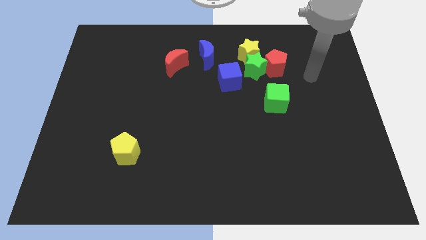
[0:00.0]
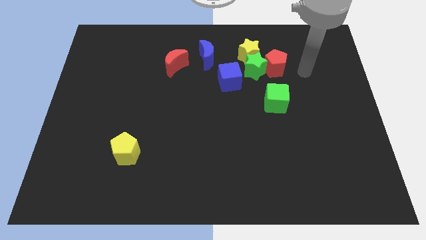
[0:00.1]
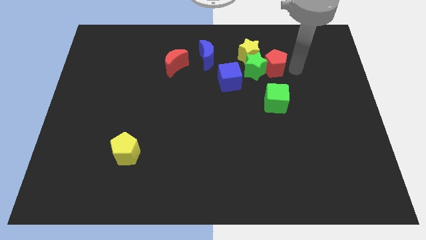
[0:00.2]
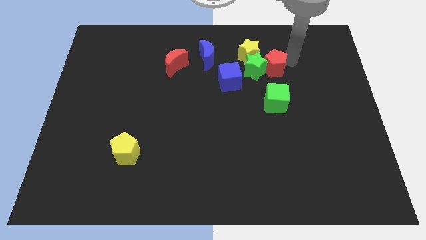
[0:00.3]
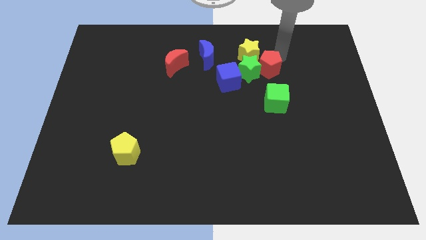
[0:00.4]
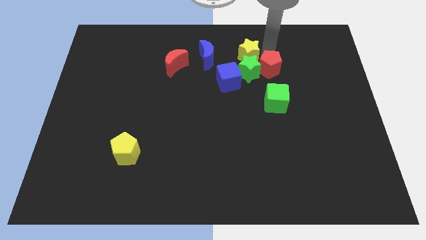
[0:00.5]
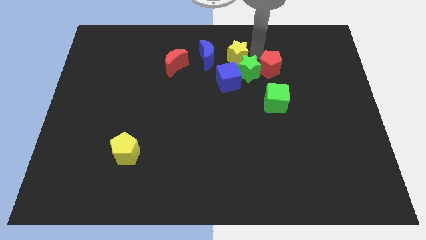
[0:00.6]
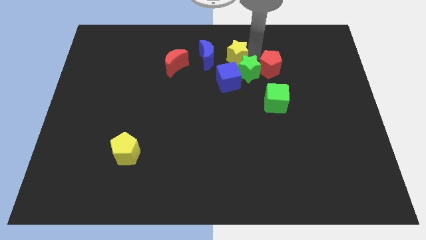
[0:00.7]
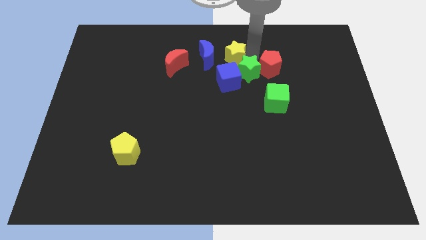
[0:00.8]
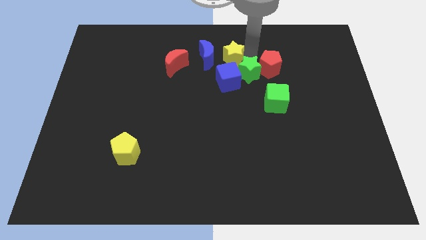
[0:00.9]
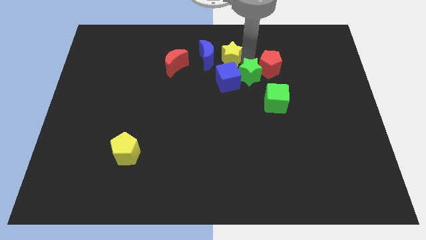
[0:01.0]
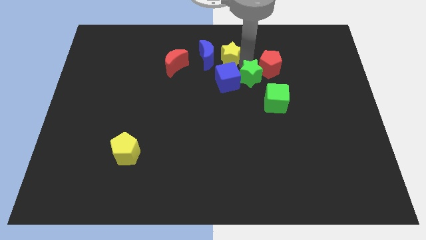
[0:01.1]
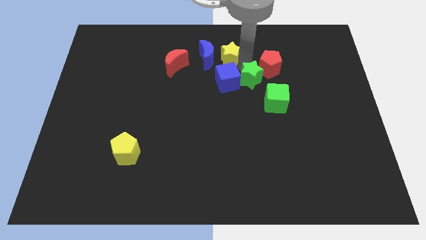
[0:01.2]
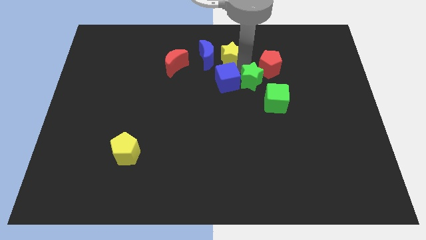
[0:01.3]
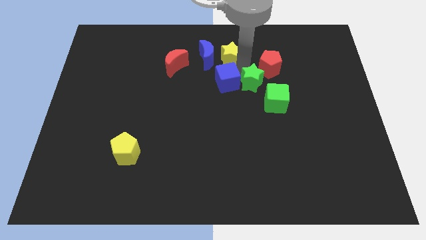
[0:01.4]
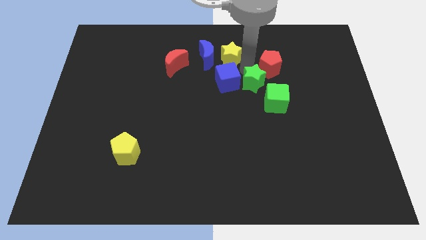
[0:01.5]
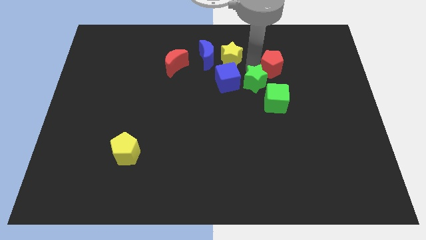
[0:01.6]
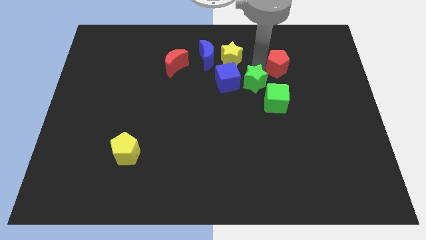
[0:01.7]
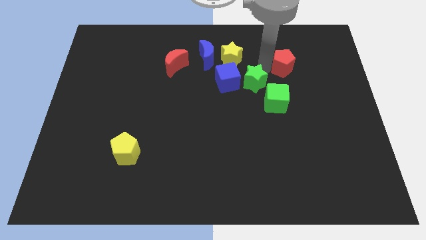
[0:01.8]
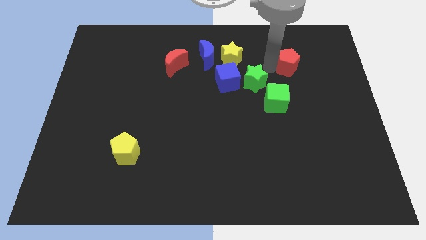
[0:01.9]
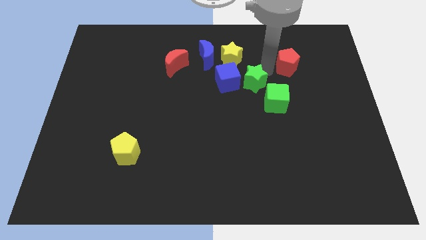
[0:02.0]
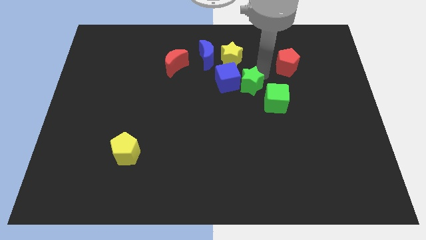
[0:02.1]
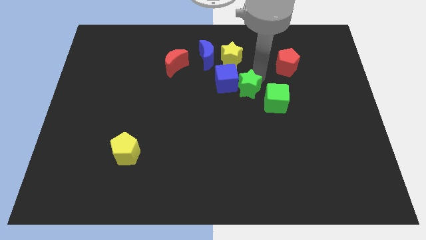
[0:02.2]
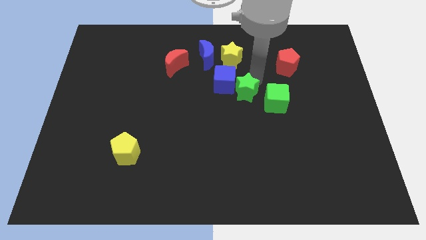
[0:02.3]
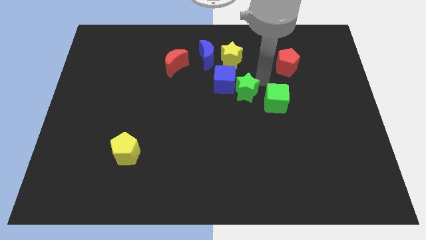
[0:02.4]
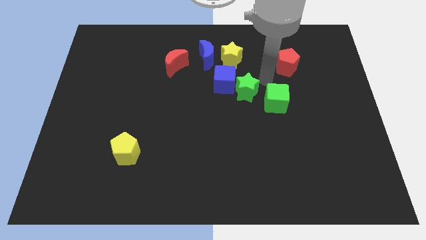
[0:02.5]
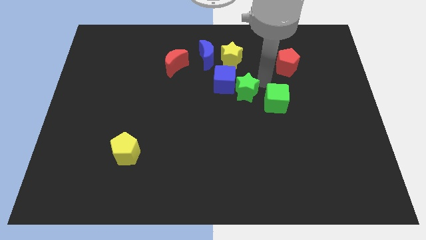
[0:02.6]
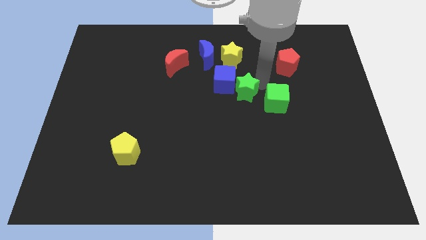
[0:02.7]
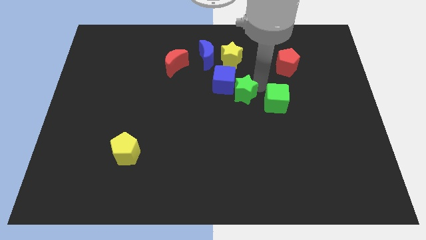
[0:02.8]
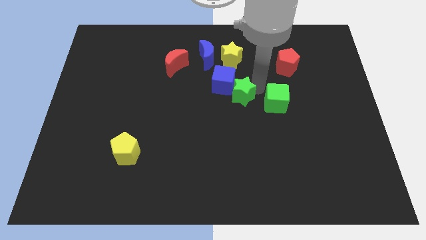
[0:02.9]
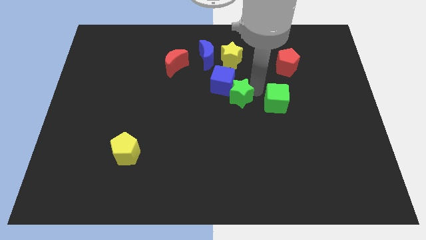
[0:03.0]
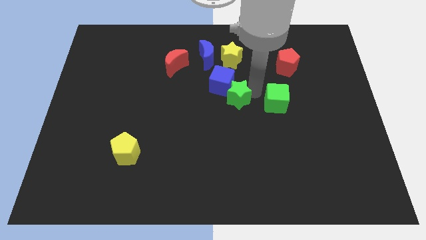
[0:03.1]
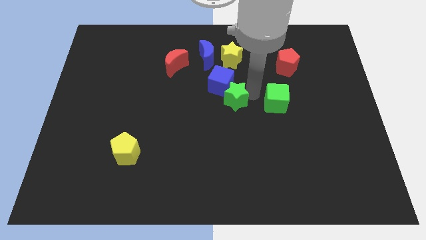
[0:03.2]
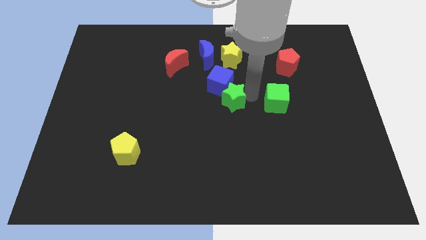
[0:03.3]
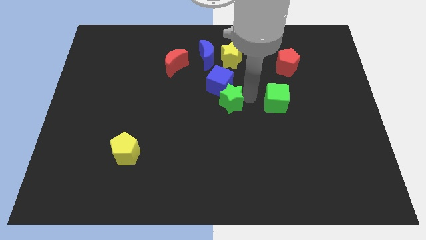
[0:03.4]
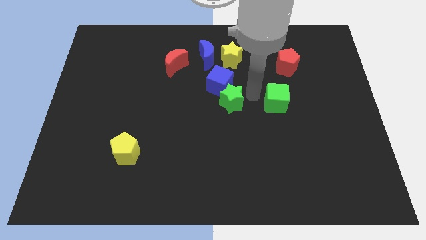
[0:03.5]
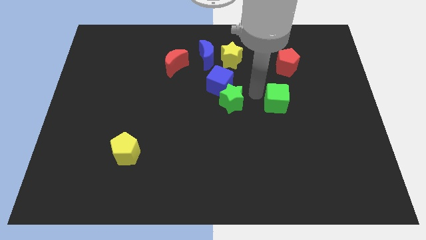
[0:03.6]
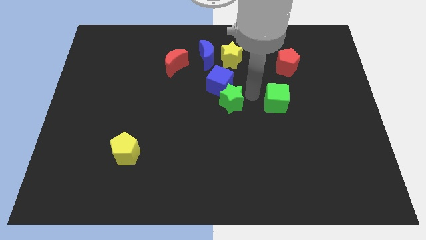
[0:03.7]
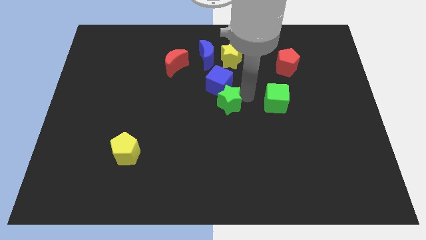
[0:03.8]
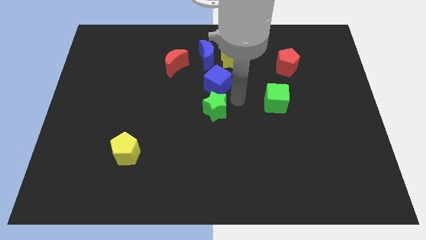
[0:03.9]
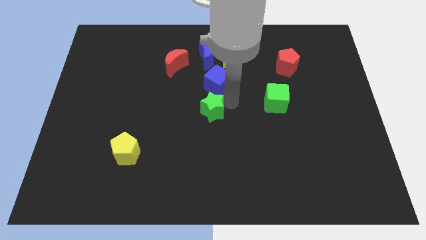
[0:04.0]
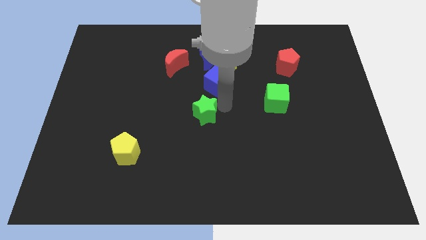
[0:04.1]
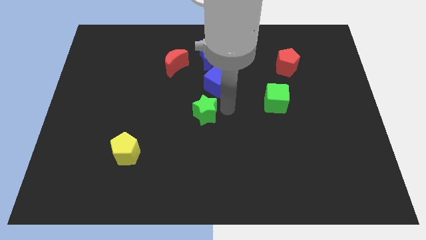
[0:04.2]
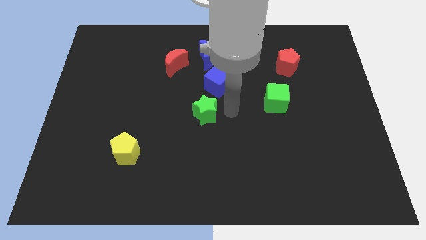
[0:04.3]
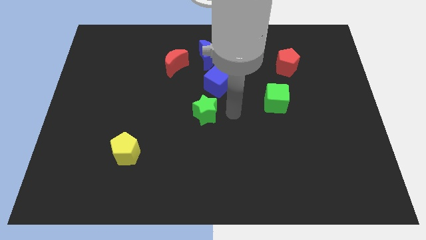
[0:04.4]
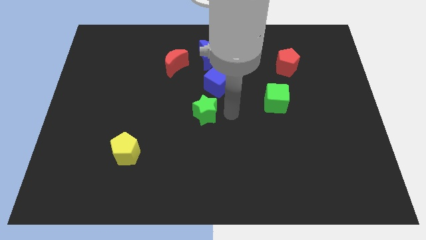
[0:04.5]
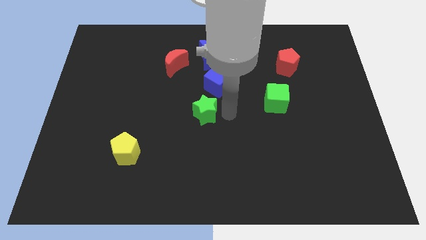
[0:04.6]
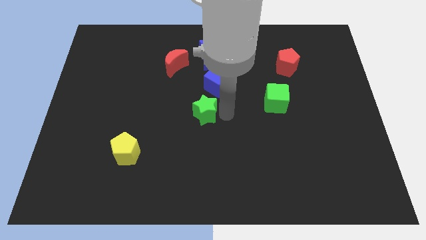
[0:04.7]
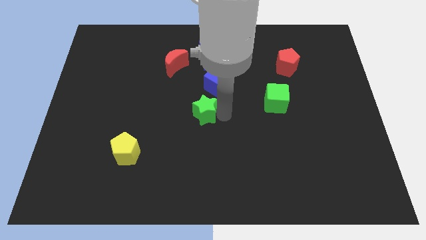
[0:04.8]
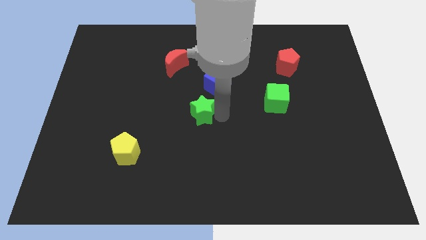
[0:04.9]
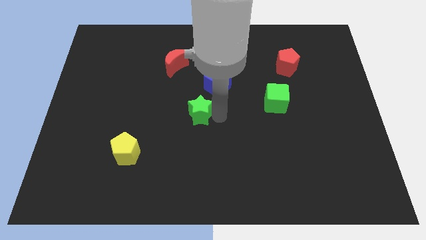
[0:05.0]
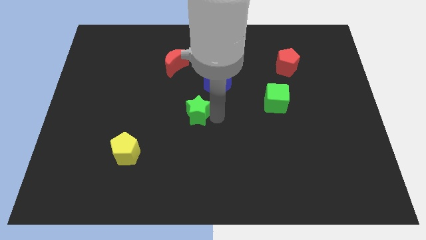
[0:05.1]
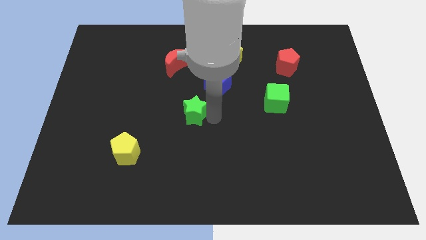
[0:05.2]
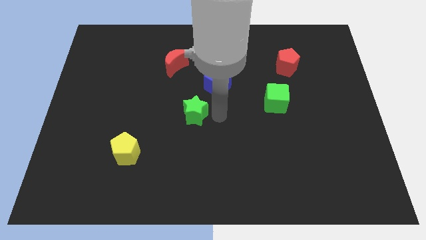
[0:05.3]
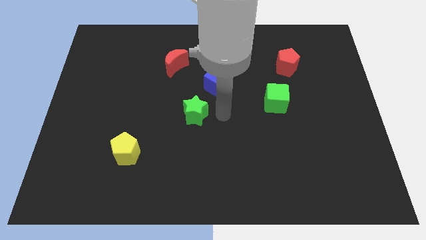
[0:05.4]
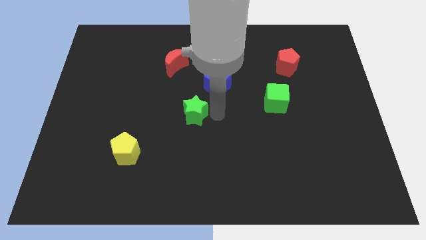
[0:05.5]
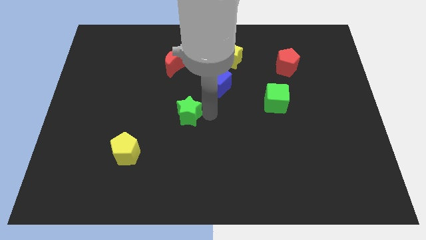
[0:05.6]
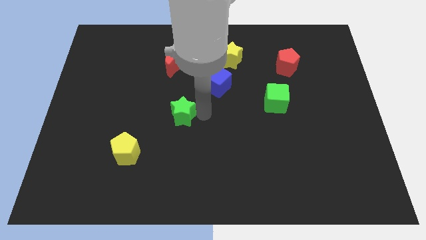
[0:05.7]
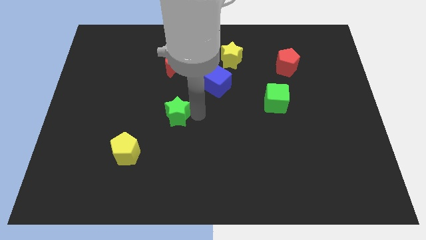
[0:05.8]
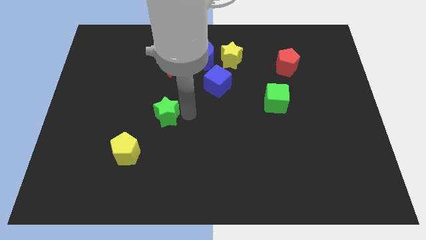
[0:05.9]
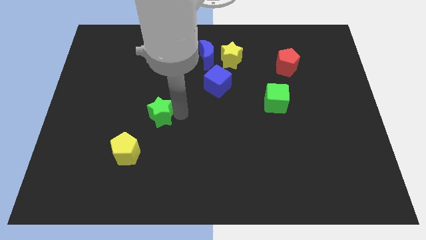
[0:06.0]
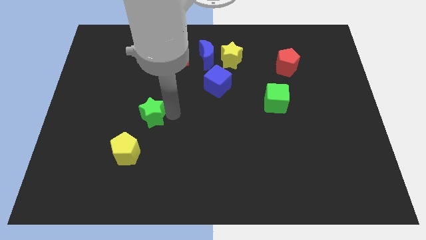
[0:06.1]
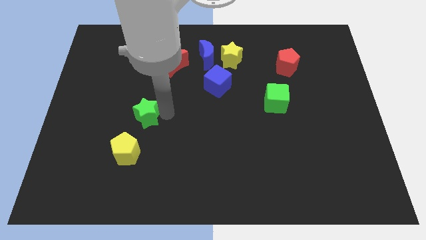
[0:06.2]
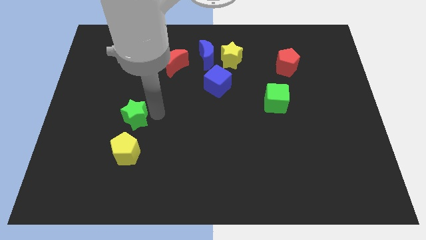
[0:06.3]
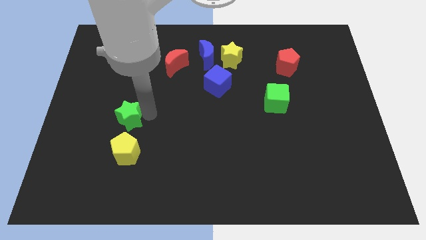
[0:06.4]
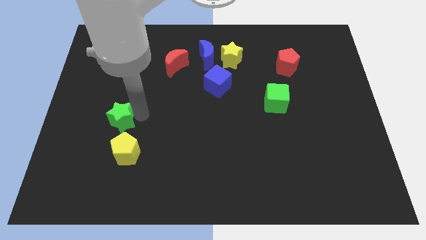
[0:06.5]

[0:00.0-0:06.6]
put the green star to the top left side of the yellow pentagon

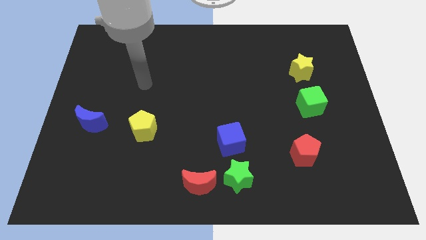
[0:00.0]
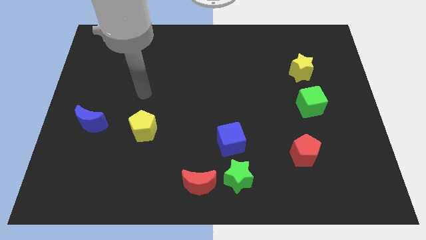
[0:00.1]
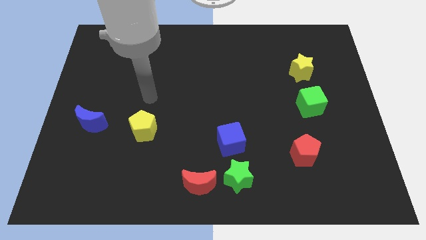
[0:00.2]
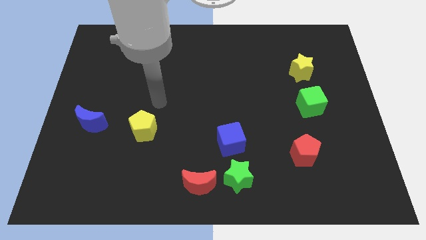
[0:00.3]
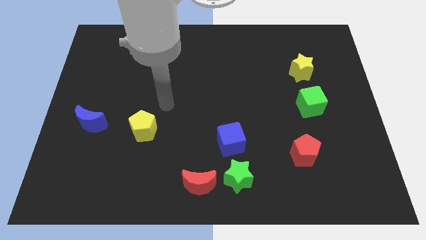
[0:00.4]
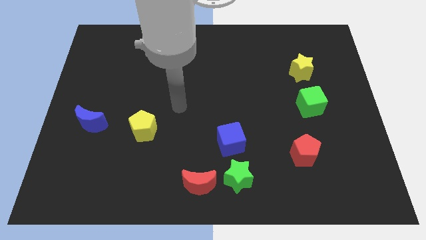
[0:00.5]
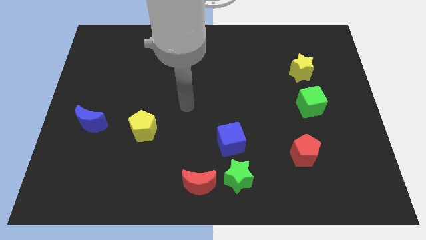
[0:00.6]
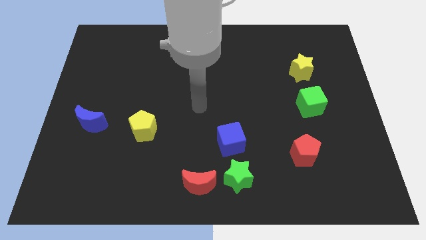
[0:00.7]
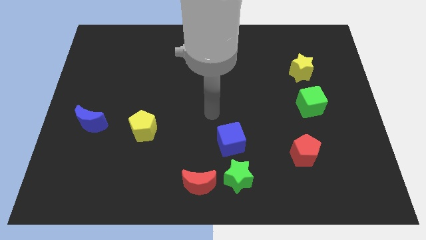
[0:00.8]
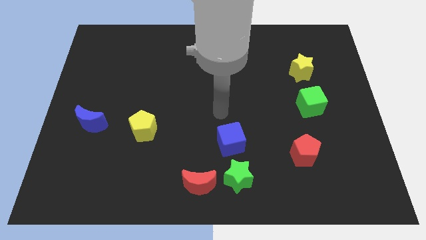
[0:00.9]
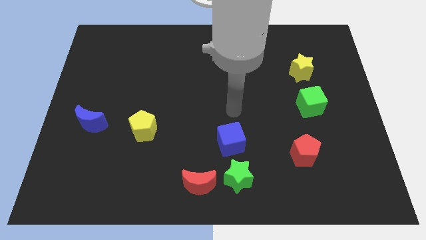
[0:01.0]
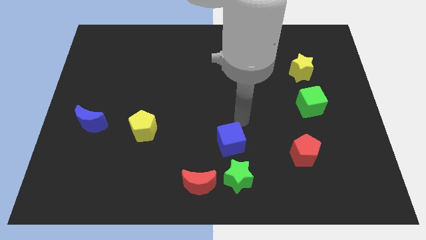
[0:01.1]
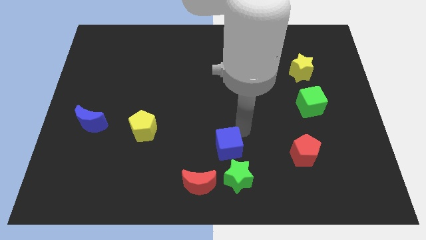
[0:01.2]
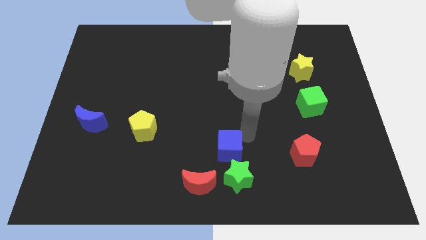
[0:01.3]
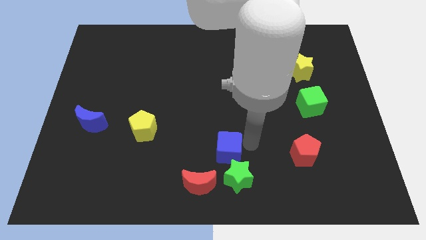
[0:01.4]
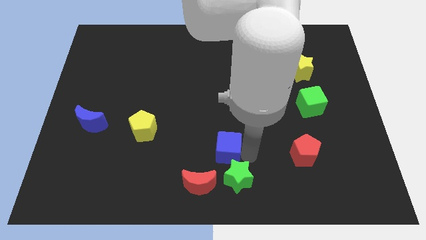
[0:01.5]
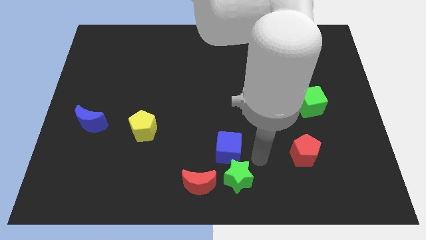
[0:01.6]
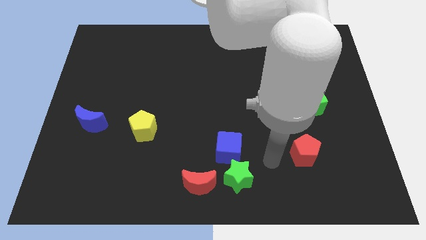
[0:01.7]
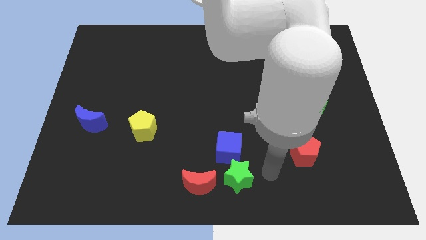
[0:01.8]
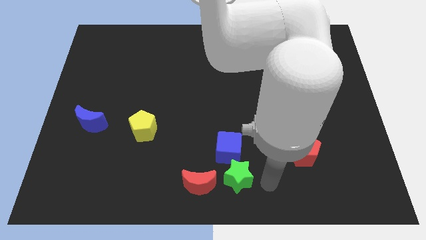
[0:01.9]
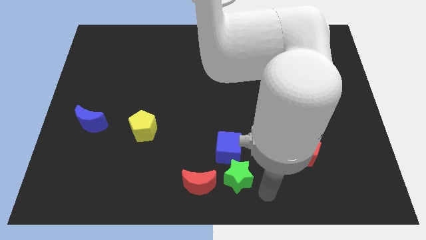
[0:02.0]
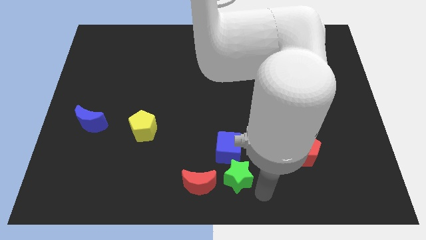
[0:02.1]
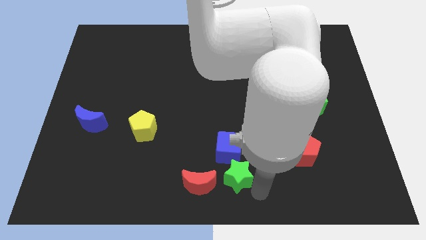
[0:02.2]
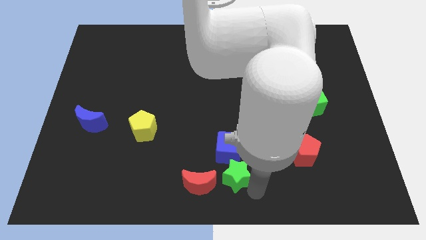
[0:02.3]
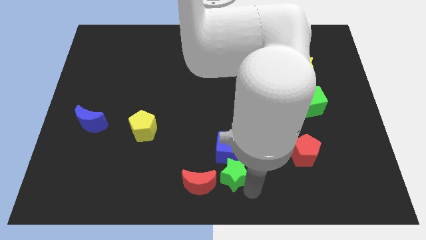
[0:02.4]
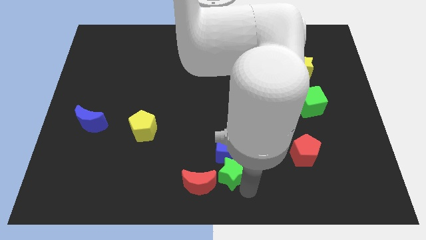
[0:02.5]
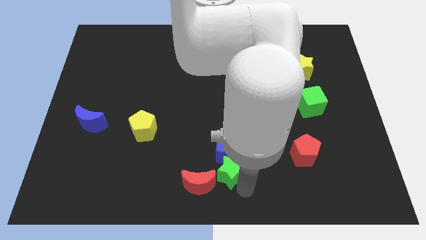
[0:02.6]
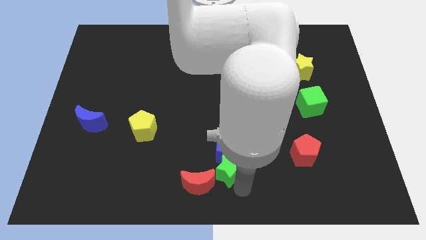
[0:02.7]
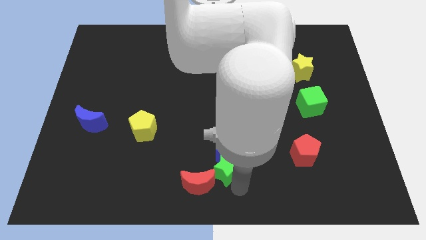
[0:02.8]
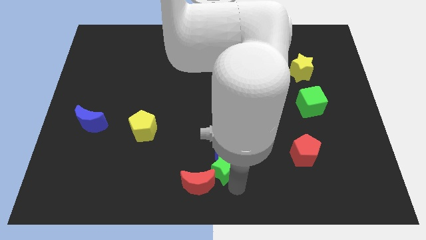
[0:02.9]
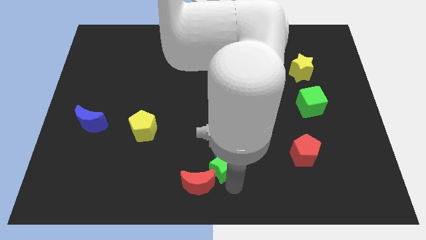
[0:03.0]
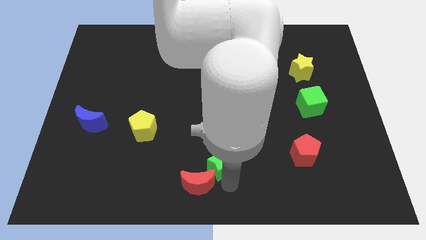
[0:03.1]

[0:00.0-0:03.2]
put the green star to the top side of the red moon
